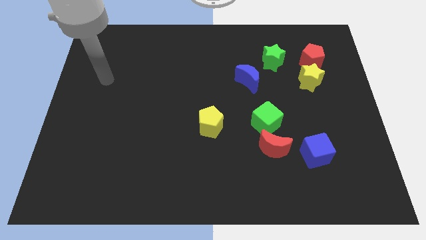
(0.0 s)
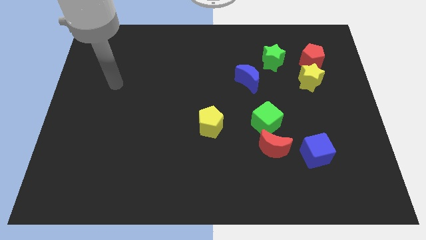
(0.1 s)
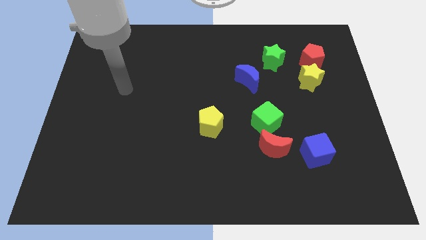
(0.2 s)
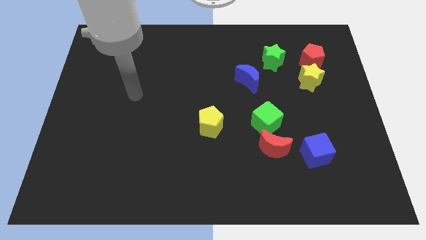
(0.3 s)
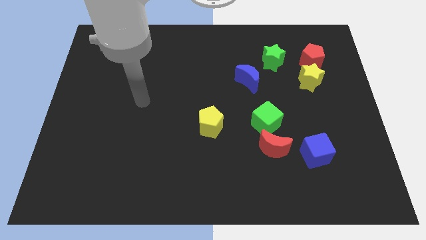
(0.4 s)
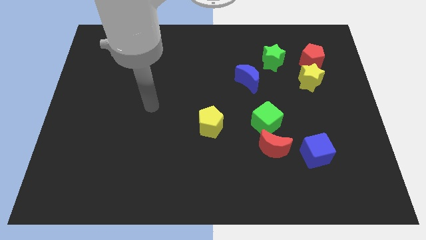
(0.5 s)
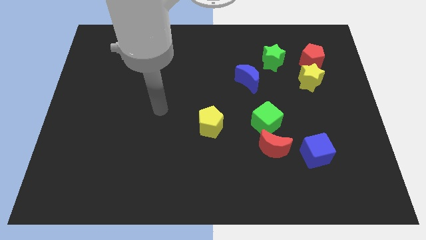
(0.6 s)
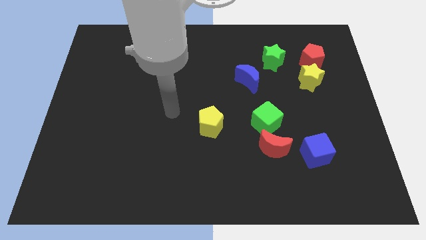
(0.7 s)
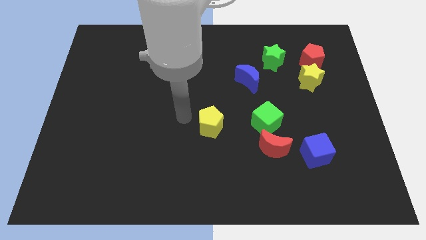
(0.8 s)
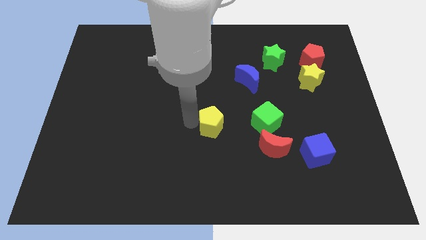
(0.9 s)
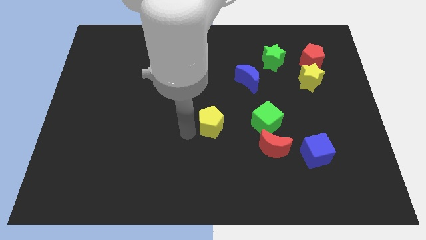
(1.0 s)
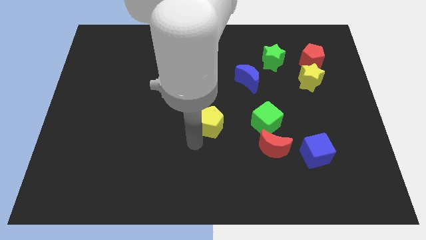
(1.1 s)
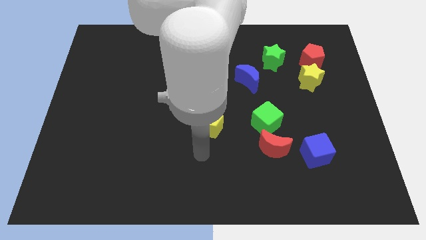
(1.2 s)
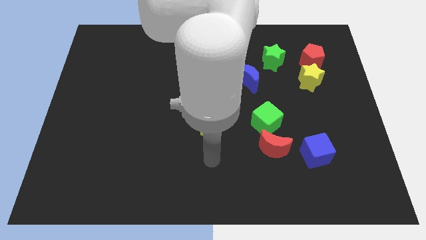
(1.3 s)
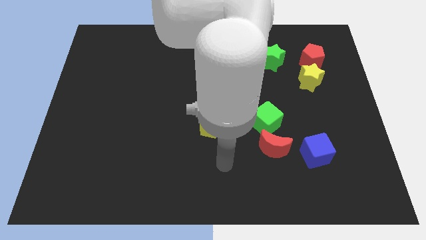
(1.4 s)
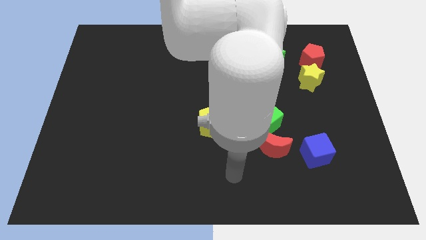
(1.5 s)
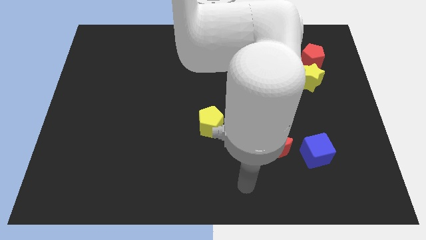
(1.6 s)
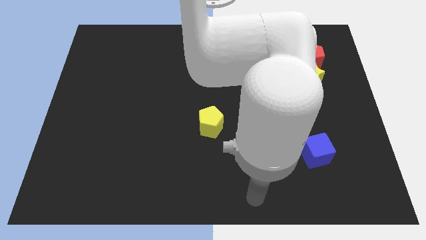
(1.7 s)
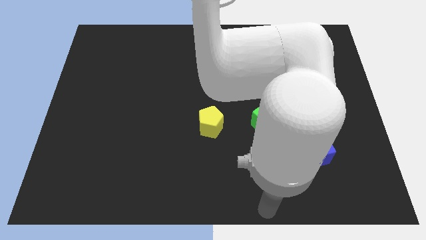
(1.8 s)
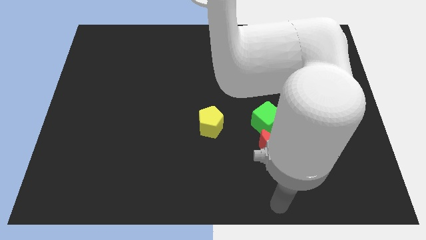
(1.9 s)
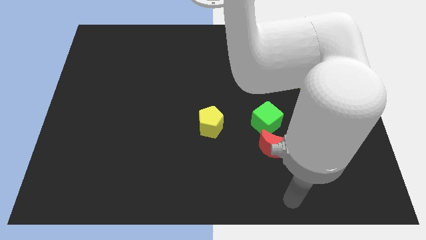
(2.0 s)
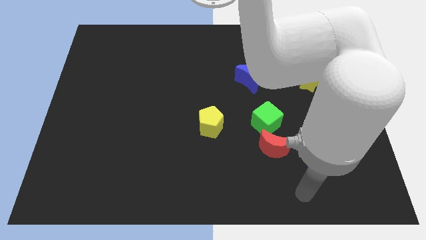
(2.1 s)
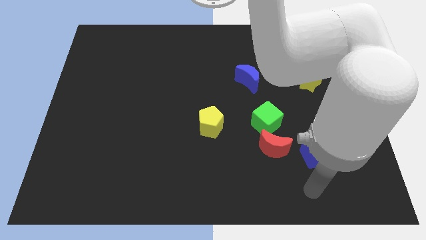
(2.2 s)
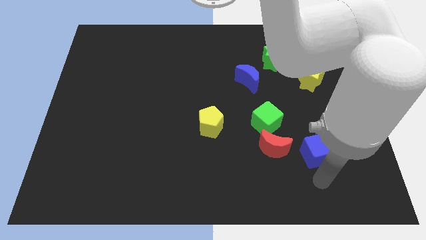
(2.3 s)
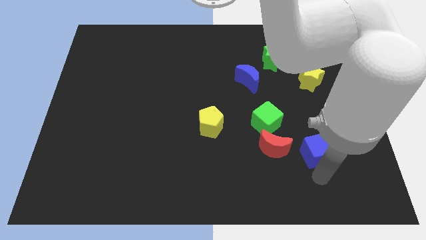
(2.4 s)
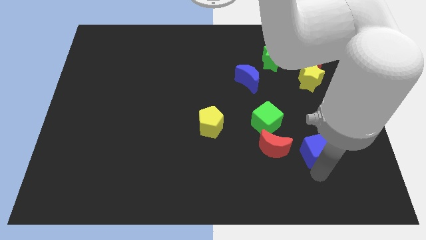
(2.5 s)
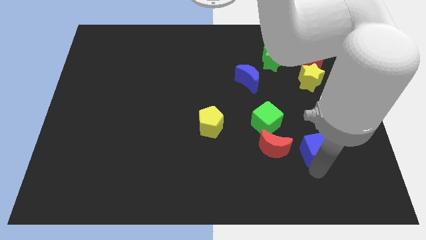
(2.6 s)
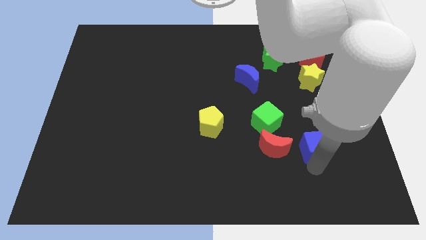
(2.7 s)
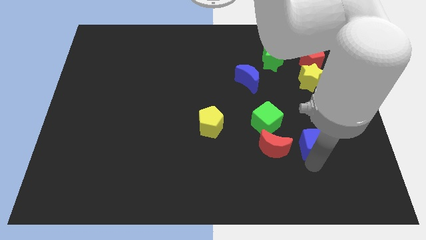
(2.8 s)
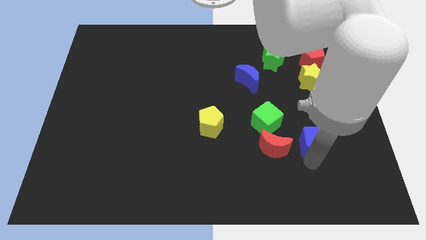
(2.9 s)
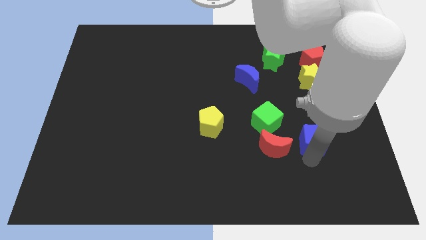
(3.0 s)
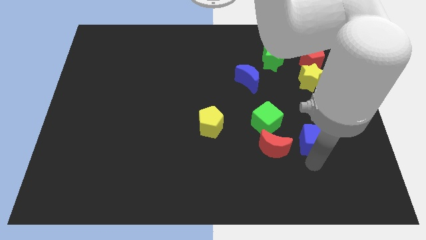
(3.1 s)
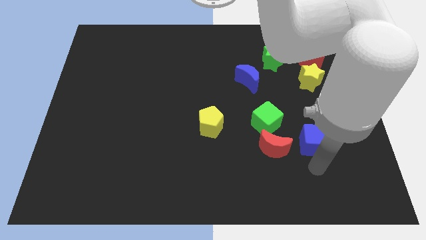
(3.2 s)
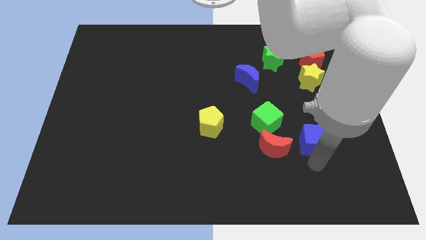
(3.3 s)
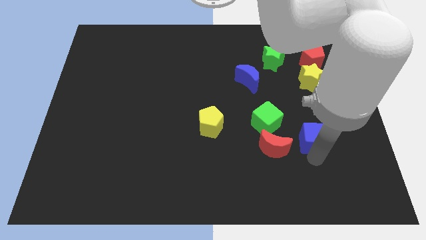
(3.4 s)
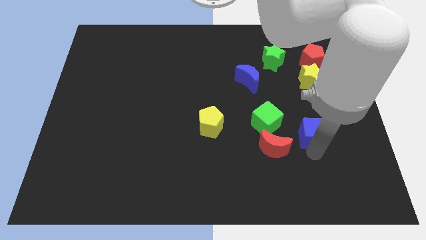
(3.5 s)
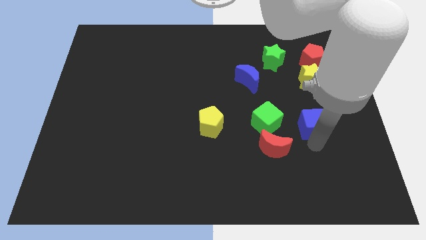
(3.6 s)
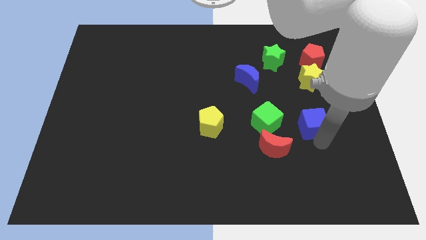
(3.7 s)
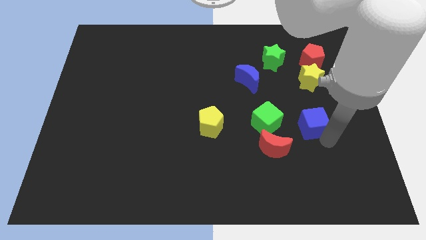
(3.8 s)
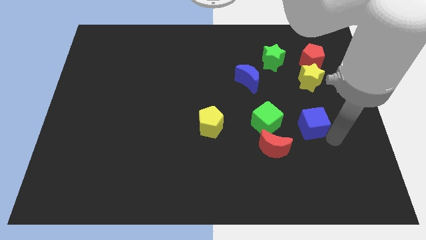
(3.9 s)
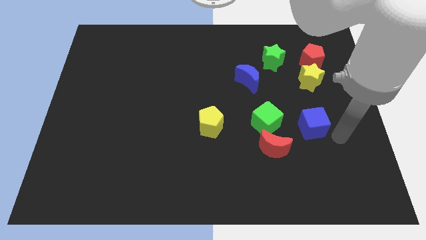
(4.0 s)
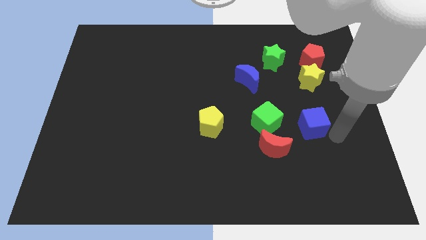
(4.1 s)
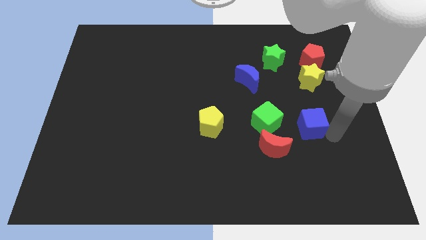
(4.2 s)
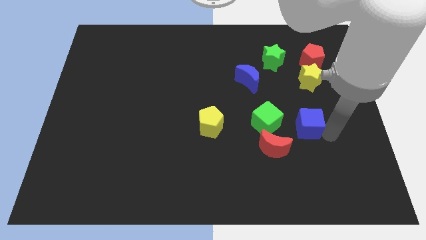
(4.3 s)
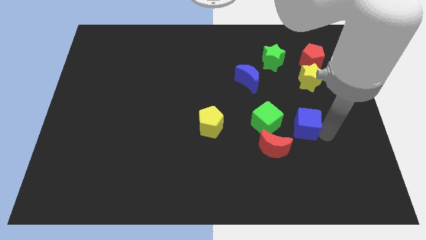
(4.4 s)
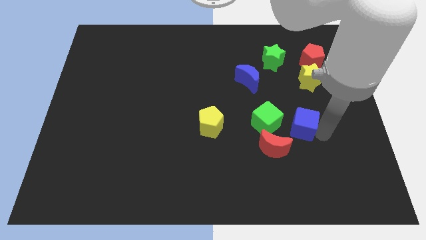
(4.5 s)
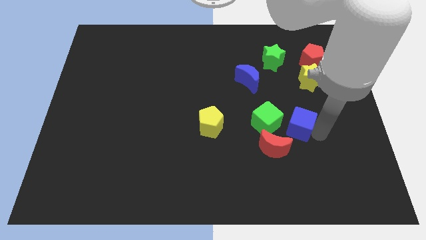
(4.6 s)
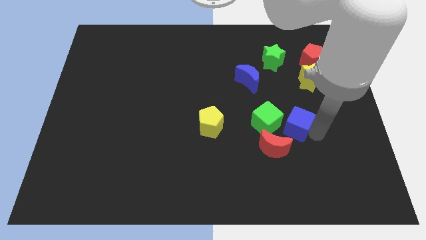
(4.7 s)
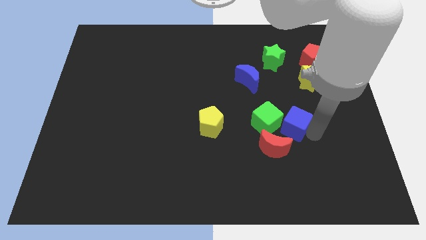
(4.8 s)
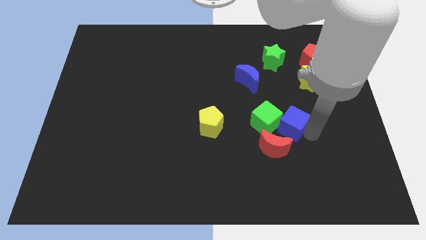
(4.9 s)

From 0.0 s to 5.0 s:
push the blue cube to the top side of the red moon

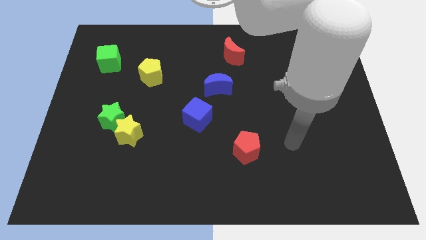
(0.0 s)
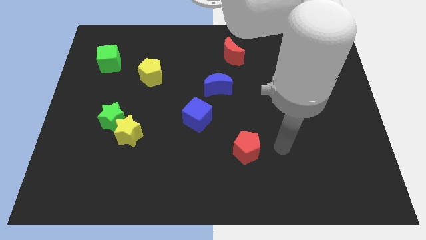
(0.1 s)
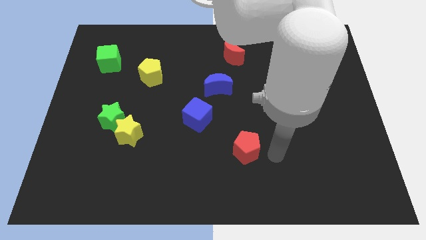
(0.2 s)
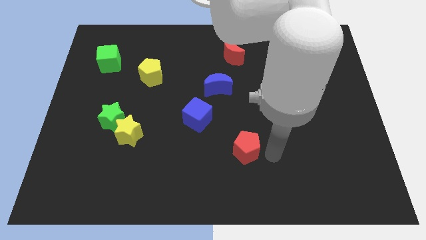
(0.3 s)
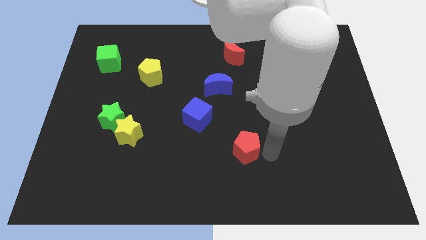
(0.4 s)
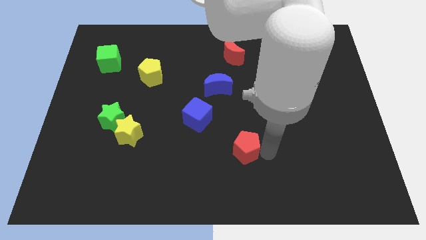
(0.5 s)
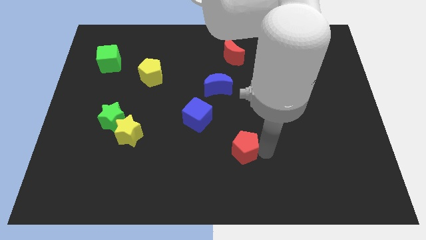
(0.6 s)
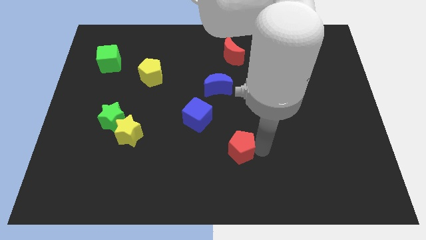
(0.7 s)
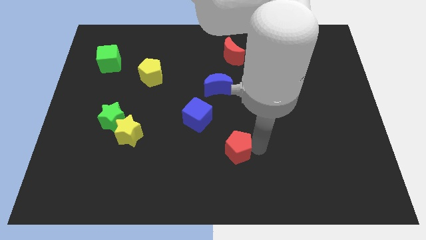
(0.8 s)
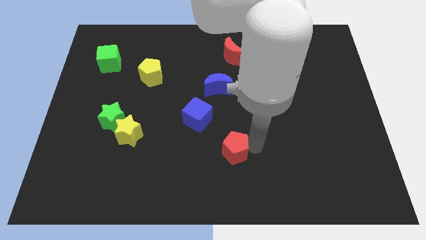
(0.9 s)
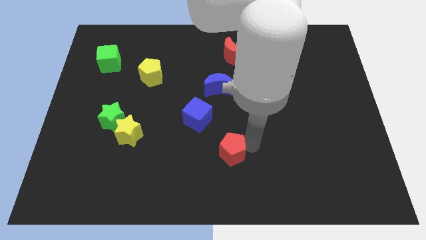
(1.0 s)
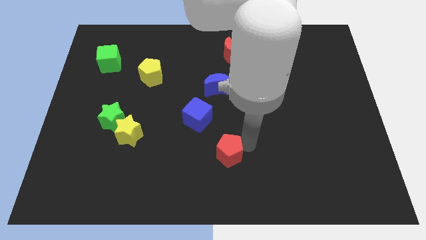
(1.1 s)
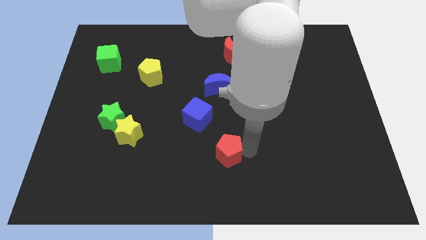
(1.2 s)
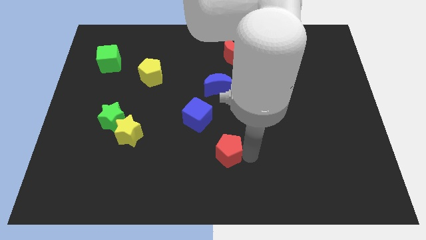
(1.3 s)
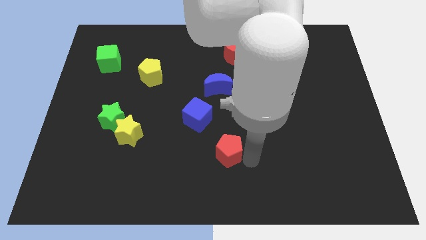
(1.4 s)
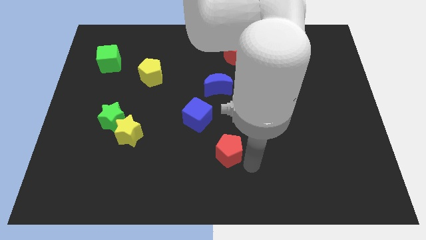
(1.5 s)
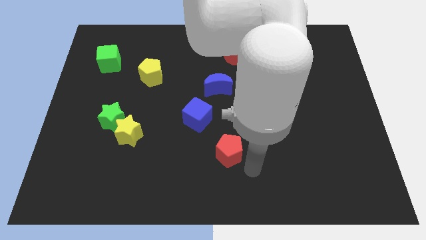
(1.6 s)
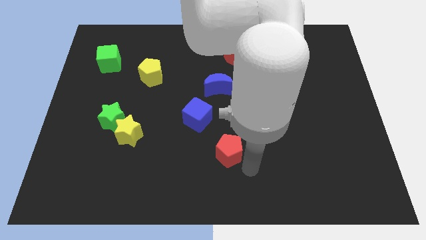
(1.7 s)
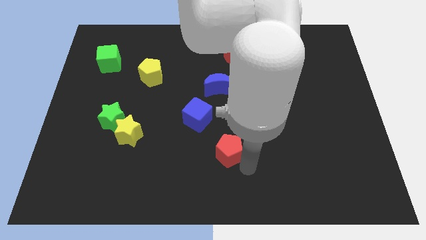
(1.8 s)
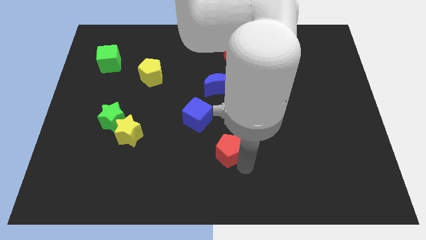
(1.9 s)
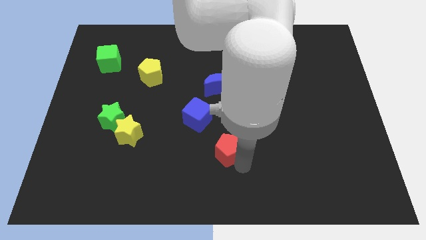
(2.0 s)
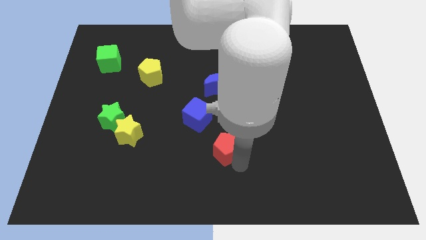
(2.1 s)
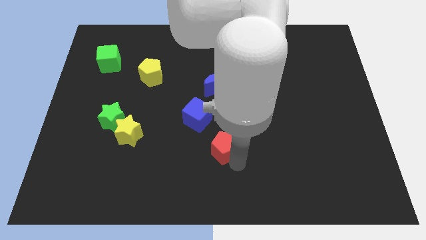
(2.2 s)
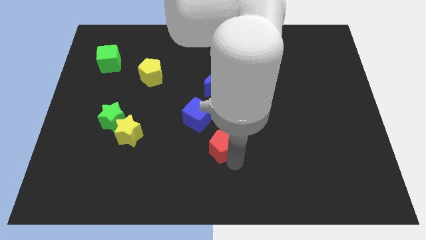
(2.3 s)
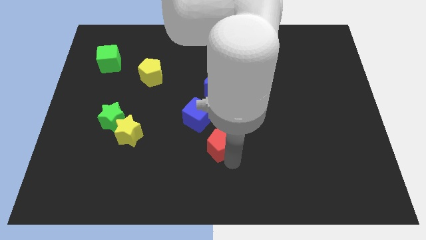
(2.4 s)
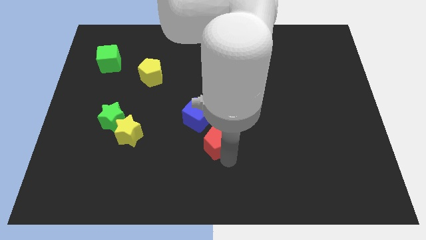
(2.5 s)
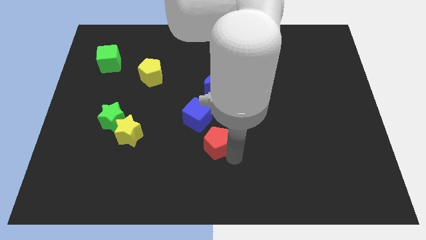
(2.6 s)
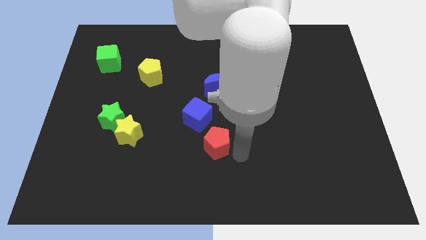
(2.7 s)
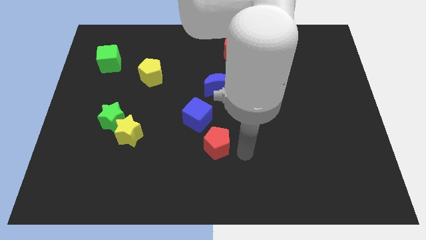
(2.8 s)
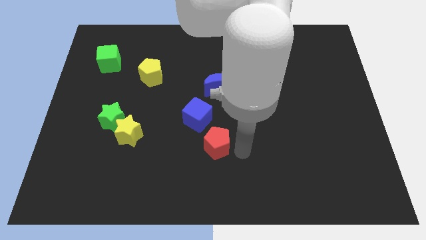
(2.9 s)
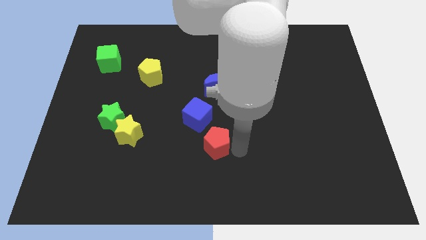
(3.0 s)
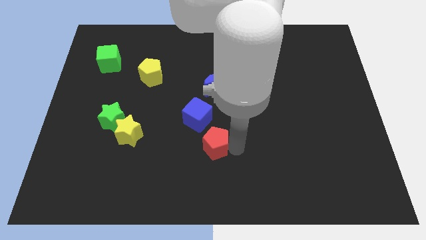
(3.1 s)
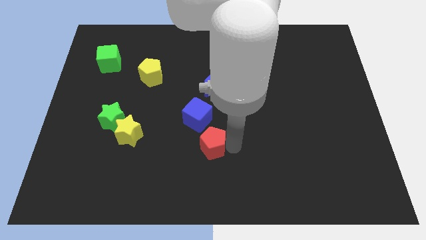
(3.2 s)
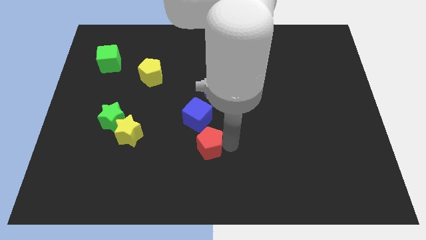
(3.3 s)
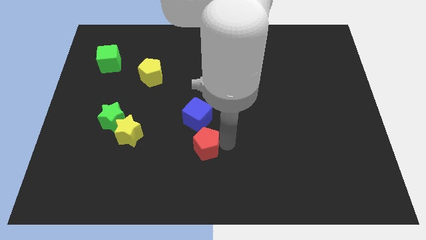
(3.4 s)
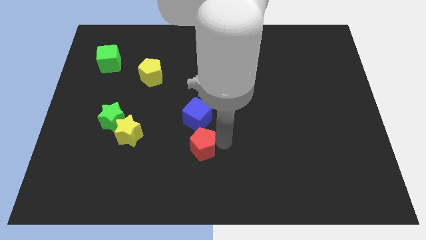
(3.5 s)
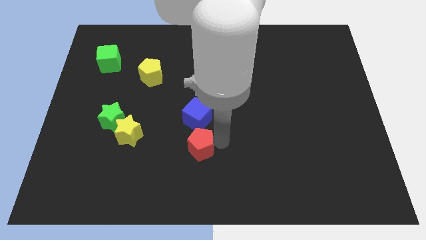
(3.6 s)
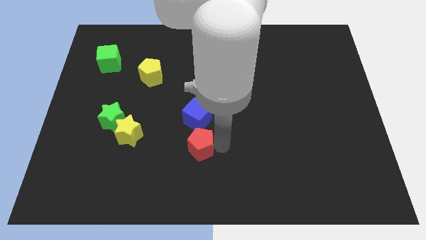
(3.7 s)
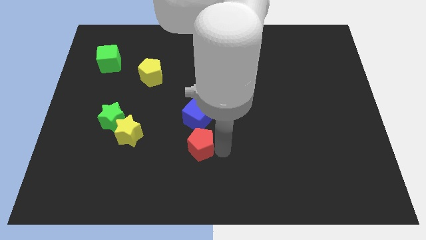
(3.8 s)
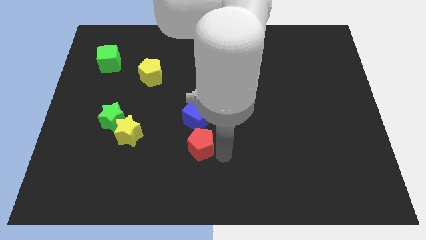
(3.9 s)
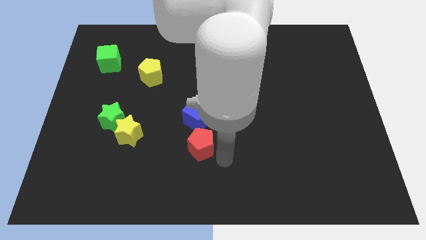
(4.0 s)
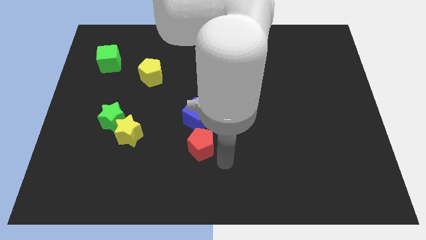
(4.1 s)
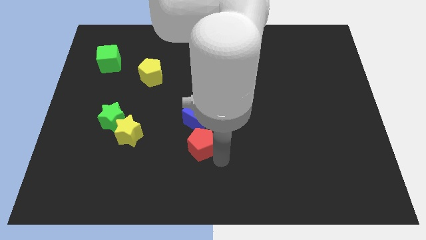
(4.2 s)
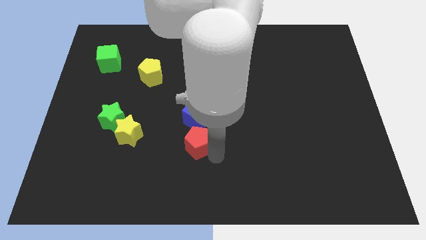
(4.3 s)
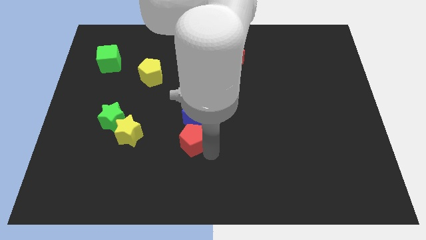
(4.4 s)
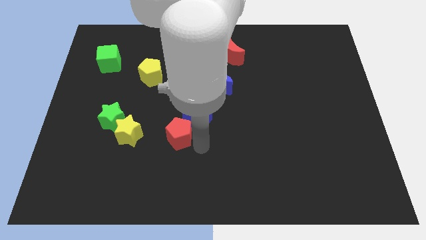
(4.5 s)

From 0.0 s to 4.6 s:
put the red pentagon left of the blue cube
